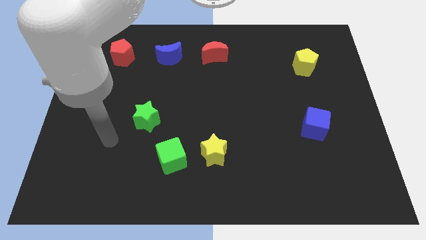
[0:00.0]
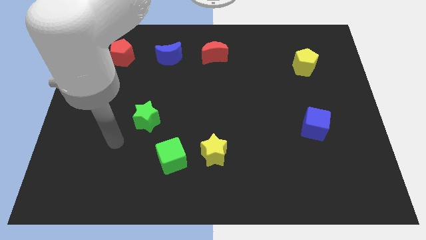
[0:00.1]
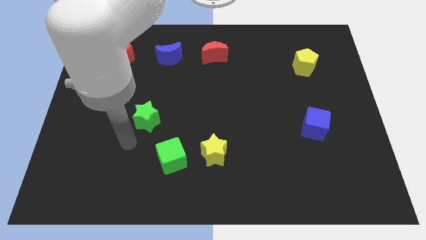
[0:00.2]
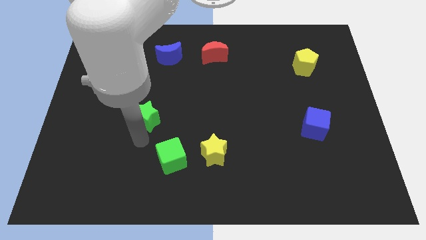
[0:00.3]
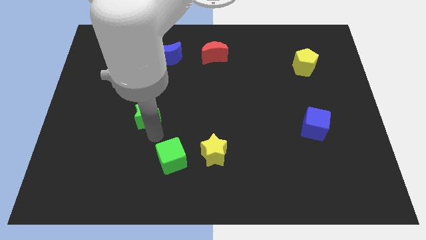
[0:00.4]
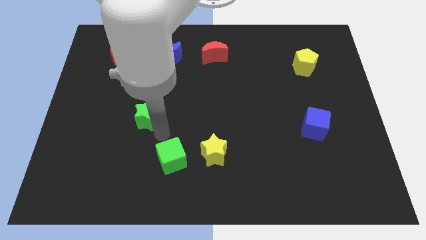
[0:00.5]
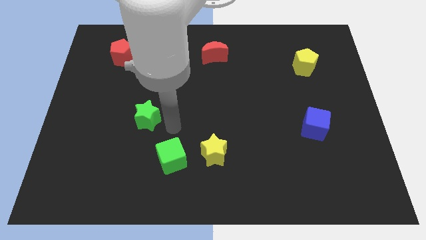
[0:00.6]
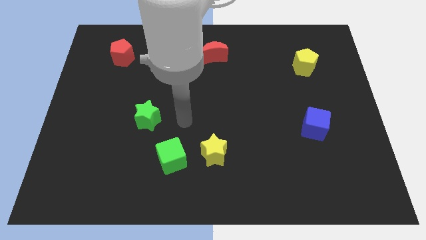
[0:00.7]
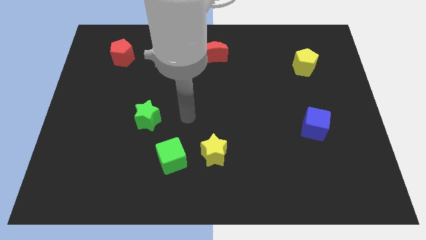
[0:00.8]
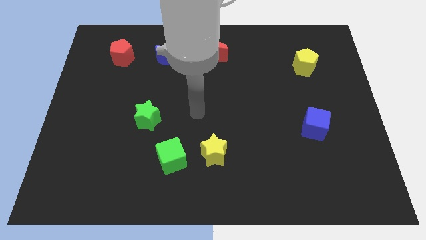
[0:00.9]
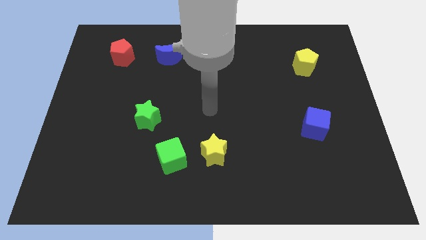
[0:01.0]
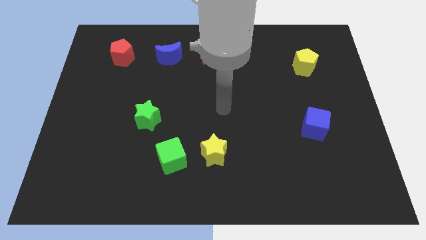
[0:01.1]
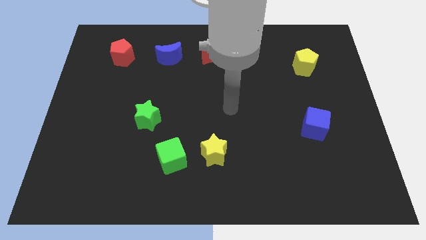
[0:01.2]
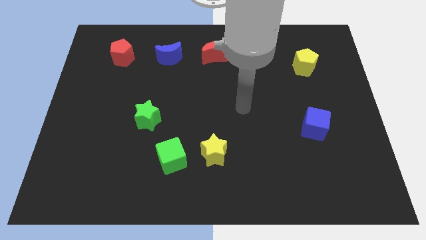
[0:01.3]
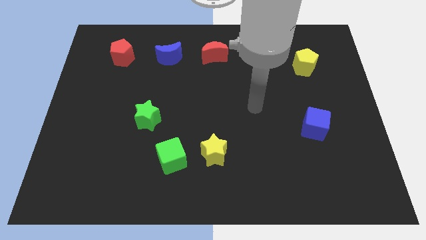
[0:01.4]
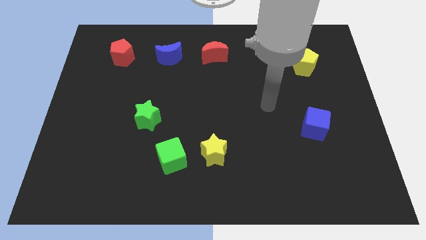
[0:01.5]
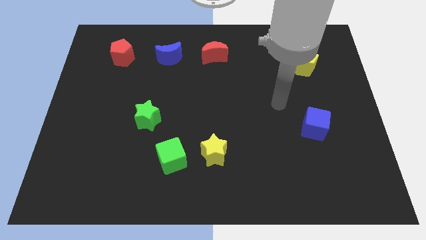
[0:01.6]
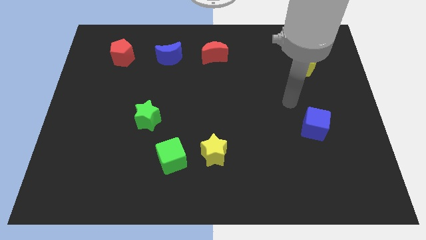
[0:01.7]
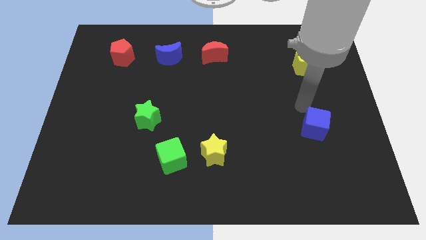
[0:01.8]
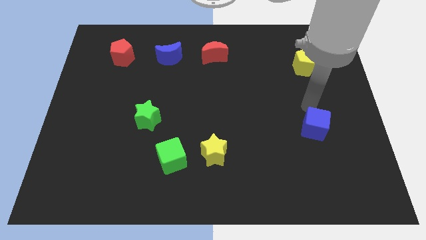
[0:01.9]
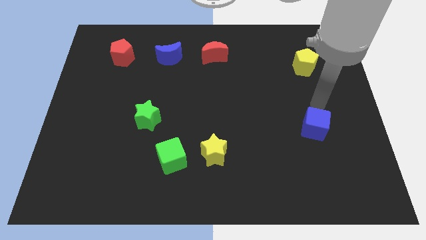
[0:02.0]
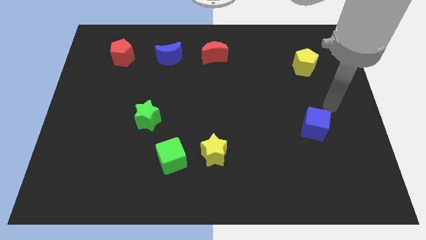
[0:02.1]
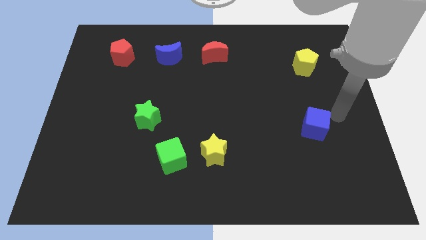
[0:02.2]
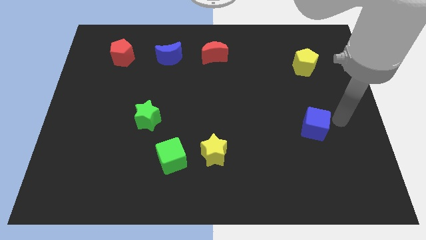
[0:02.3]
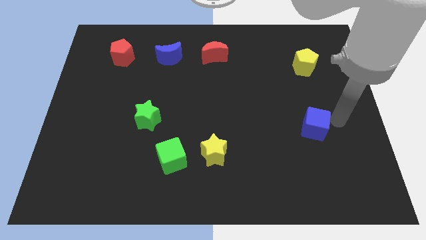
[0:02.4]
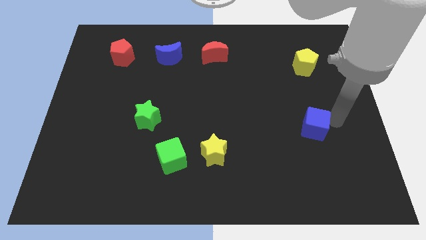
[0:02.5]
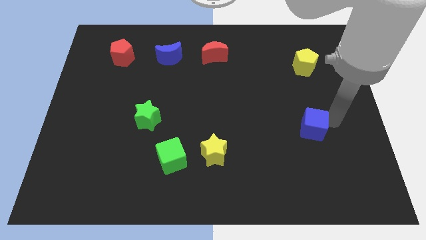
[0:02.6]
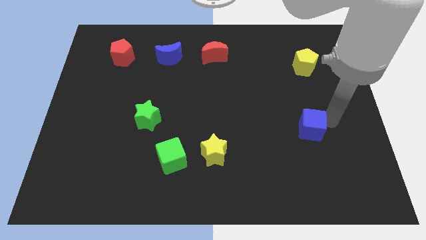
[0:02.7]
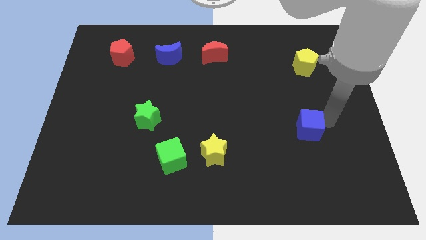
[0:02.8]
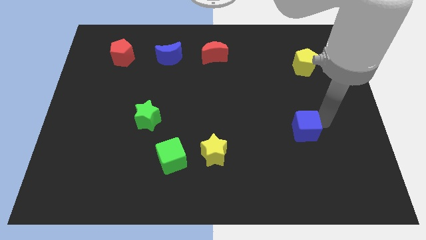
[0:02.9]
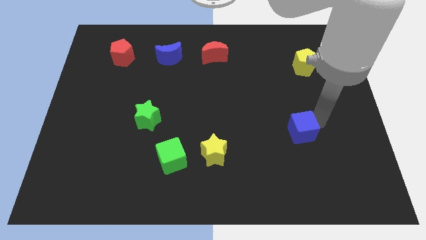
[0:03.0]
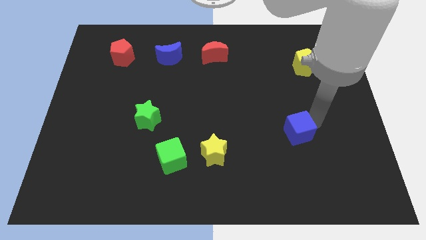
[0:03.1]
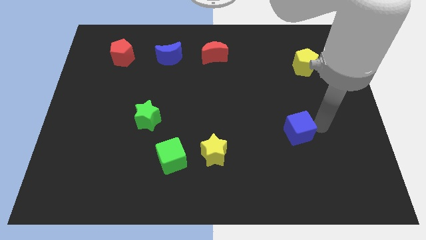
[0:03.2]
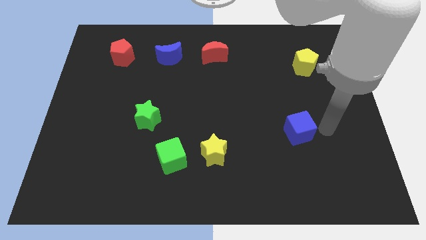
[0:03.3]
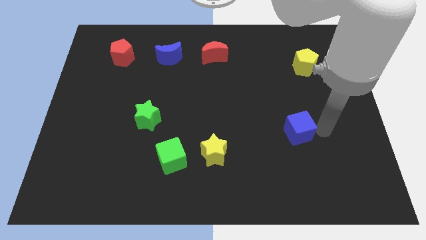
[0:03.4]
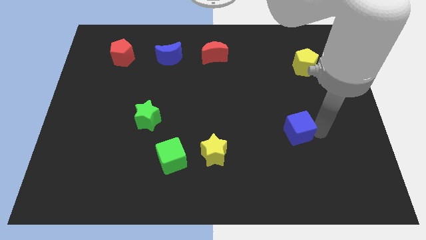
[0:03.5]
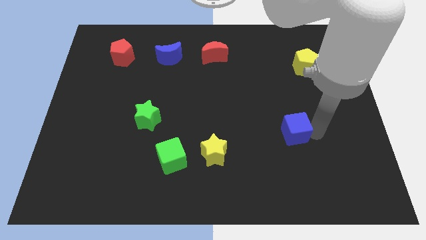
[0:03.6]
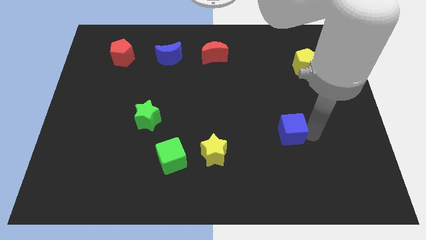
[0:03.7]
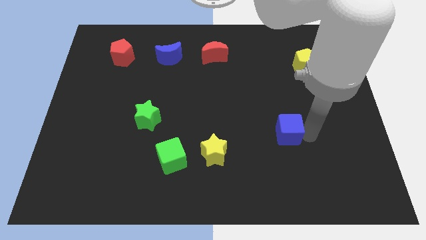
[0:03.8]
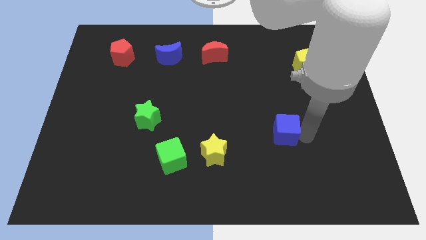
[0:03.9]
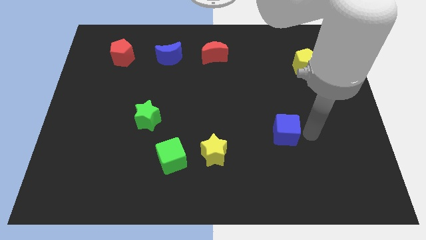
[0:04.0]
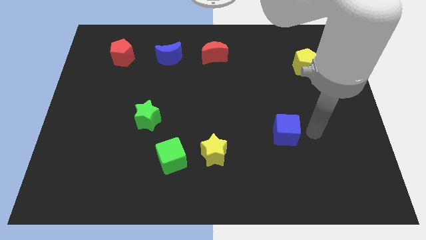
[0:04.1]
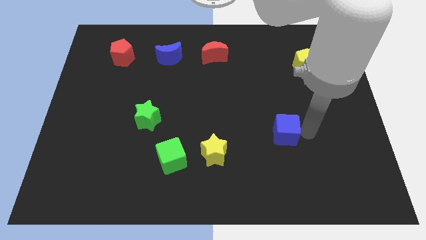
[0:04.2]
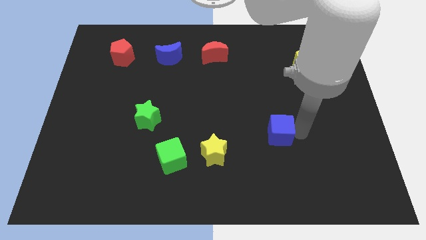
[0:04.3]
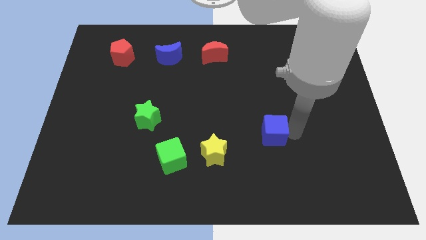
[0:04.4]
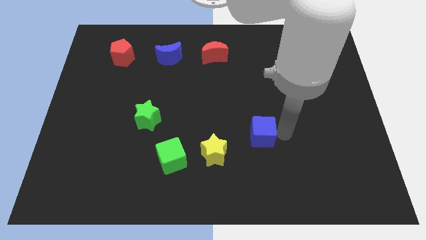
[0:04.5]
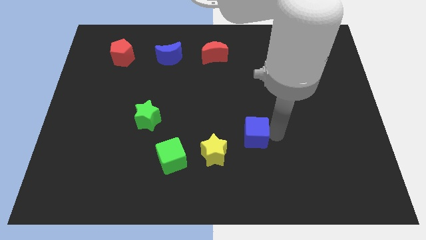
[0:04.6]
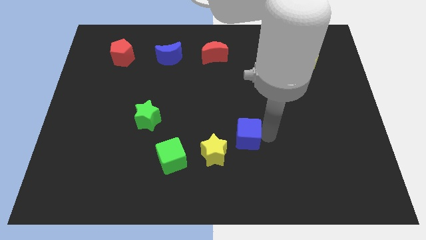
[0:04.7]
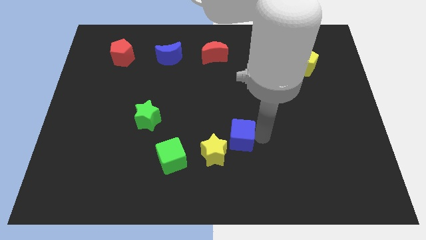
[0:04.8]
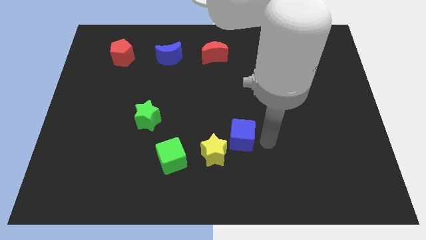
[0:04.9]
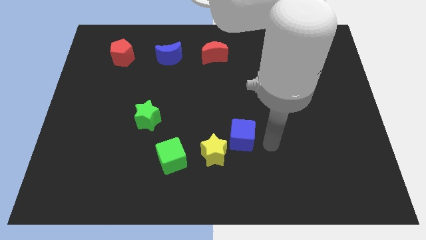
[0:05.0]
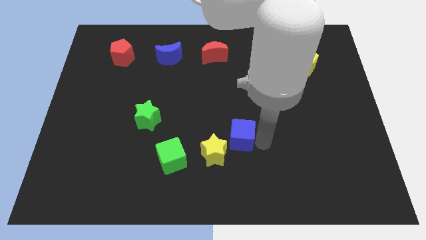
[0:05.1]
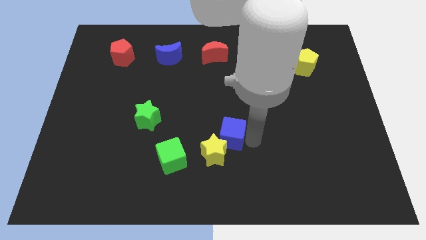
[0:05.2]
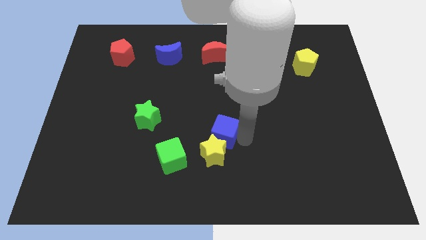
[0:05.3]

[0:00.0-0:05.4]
slide the blue cube left

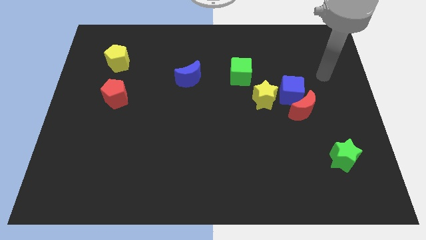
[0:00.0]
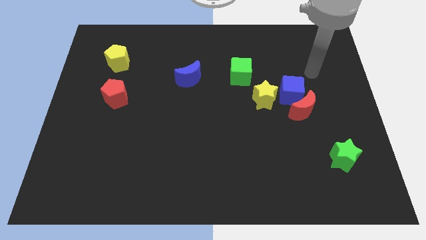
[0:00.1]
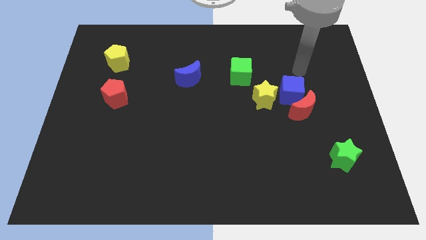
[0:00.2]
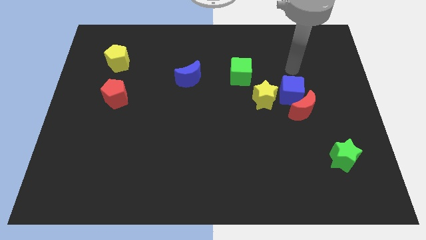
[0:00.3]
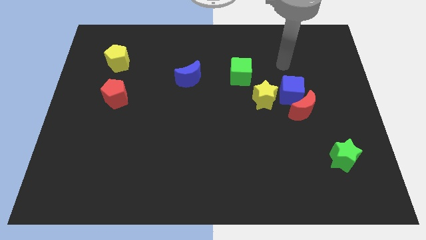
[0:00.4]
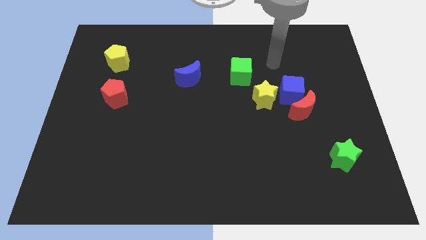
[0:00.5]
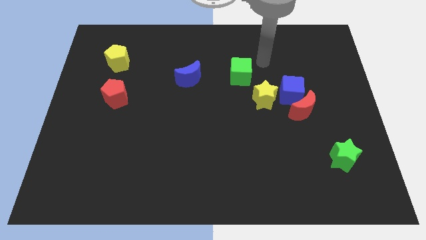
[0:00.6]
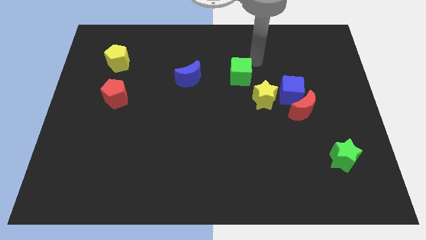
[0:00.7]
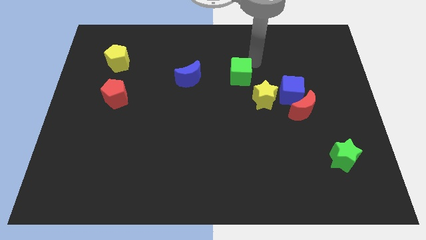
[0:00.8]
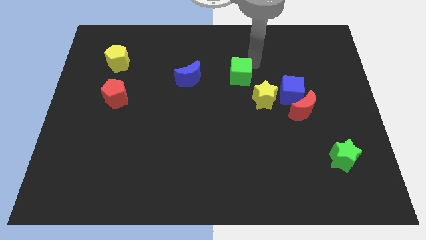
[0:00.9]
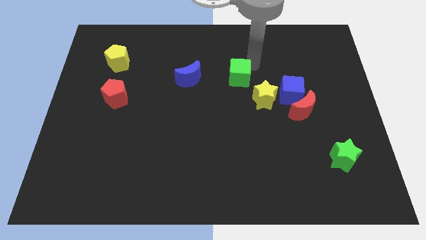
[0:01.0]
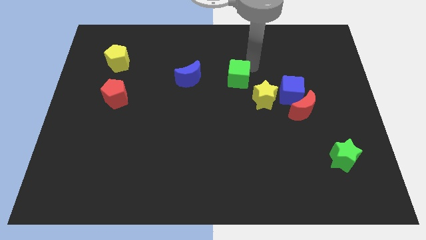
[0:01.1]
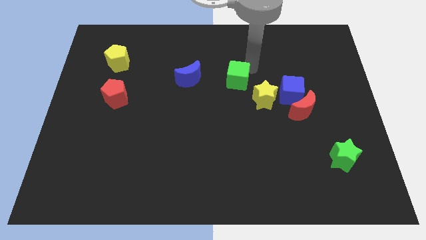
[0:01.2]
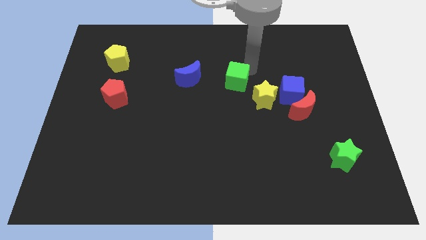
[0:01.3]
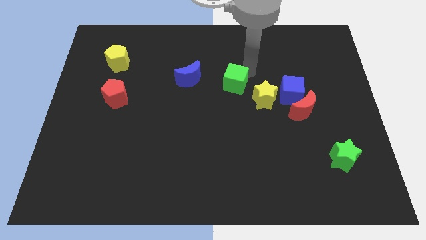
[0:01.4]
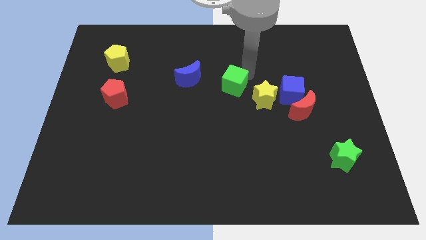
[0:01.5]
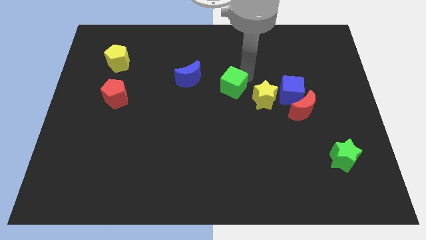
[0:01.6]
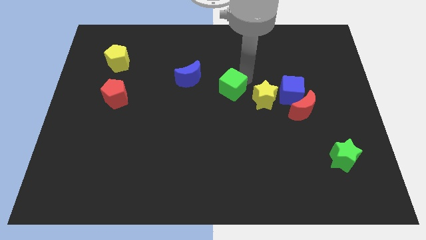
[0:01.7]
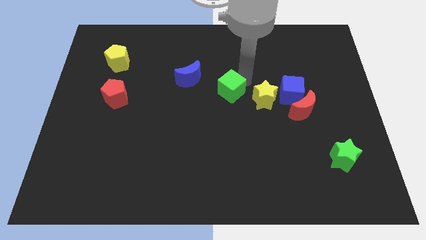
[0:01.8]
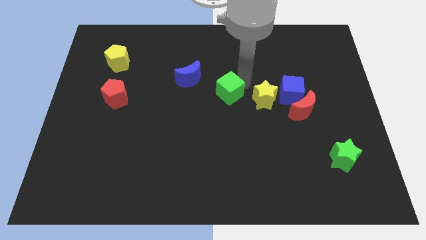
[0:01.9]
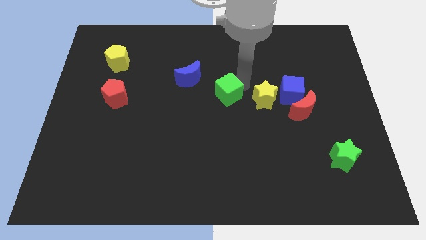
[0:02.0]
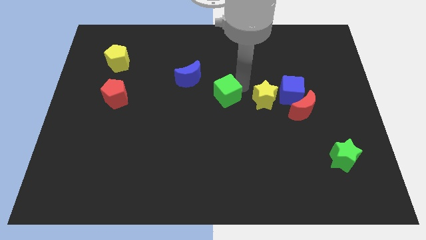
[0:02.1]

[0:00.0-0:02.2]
slightly push the green cube diagonally down and left

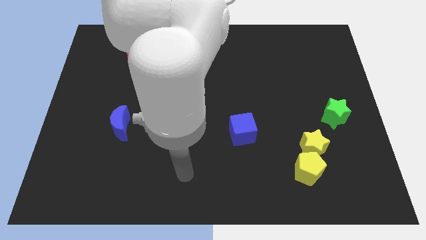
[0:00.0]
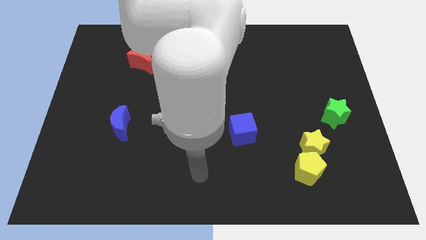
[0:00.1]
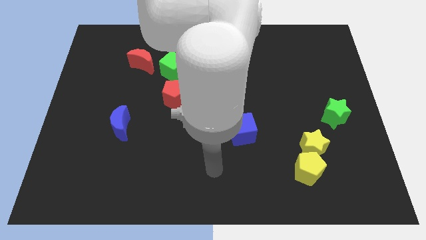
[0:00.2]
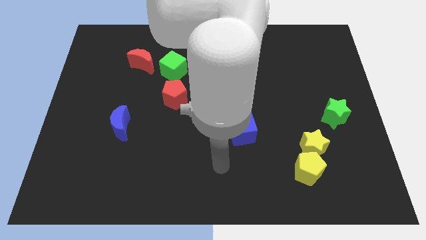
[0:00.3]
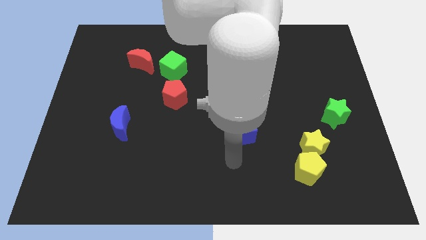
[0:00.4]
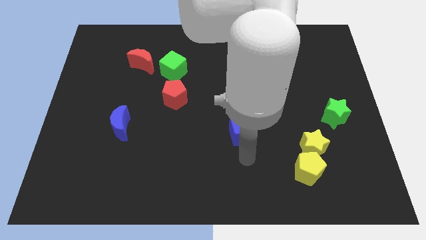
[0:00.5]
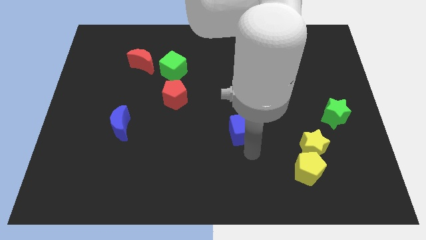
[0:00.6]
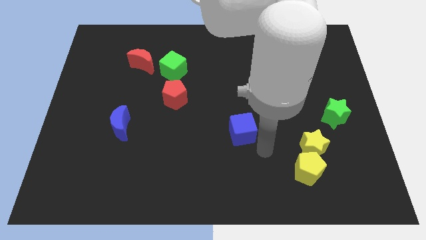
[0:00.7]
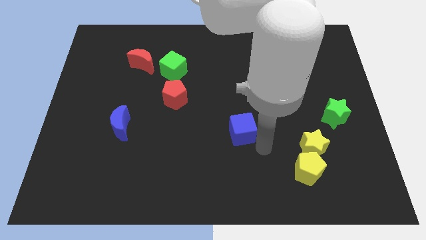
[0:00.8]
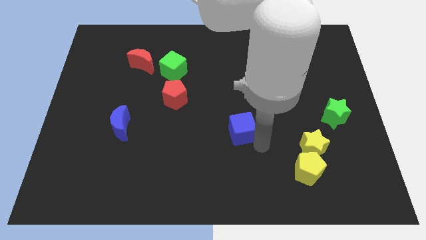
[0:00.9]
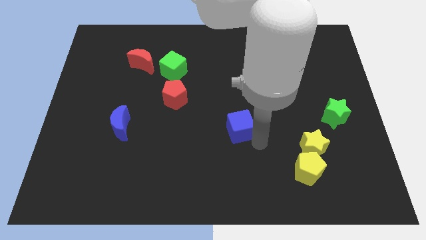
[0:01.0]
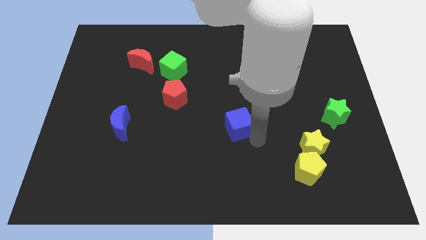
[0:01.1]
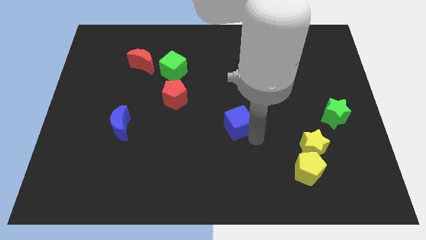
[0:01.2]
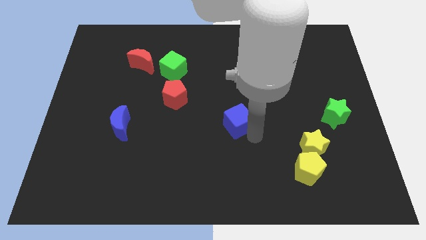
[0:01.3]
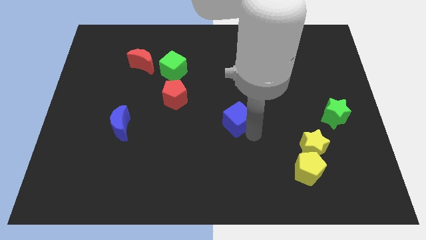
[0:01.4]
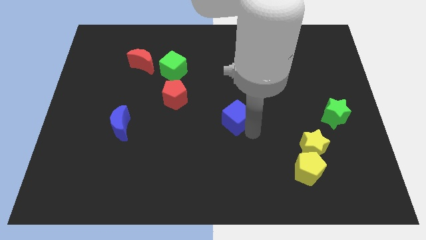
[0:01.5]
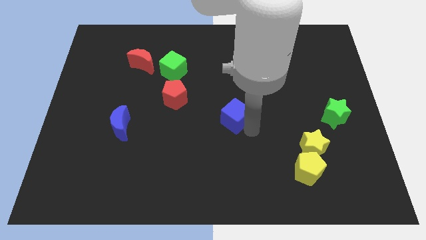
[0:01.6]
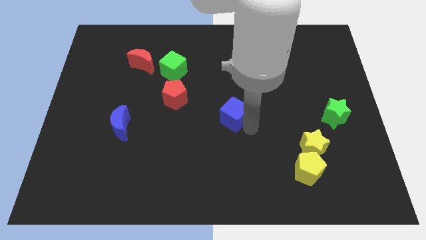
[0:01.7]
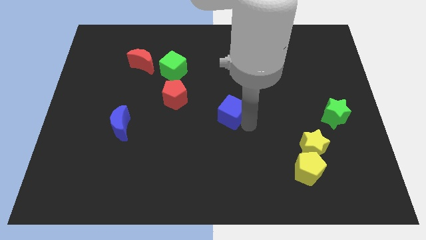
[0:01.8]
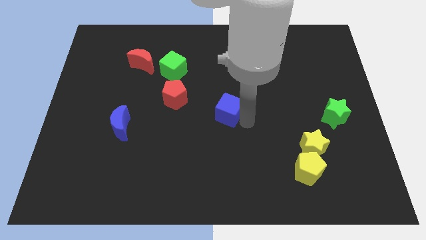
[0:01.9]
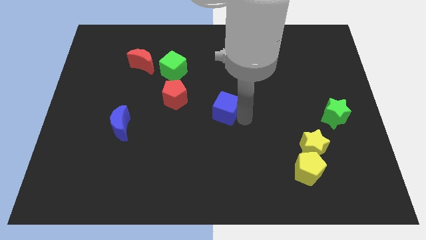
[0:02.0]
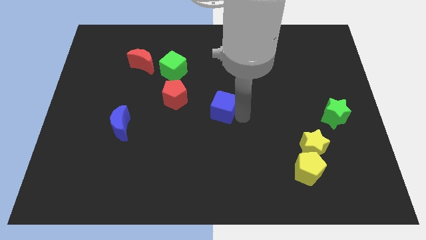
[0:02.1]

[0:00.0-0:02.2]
push the blue cube a little bit up and left diagonally
